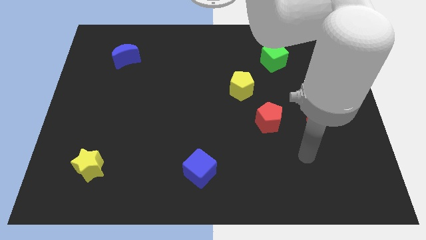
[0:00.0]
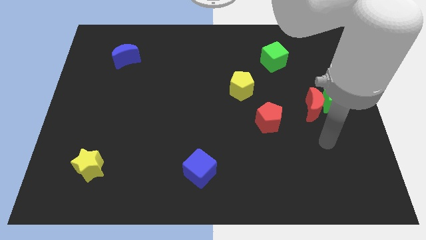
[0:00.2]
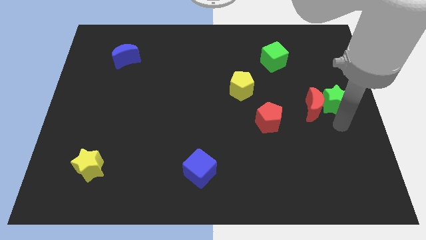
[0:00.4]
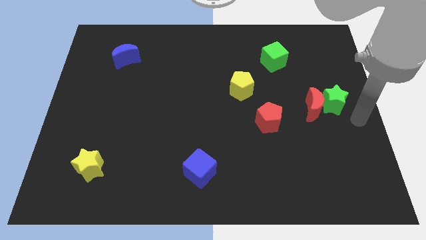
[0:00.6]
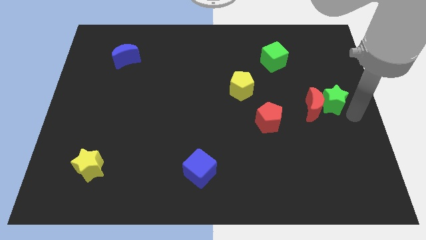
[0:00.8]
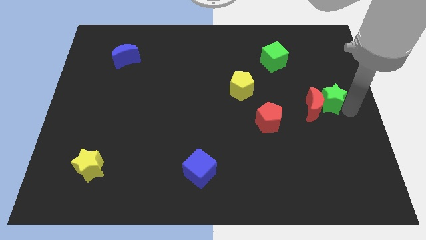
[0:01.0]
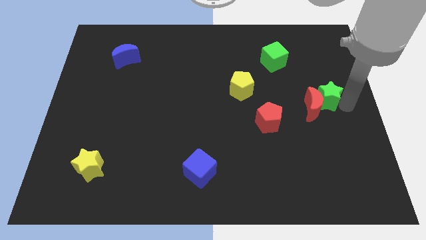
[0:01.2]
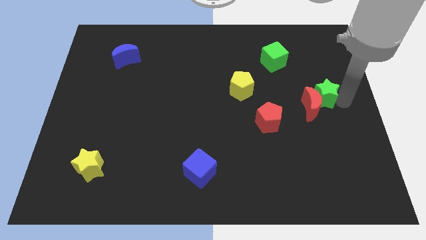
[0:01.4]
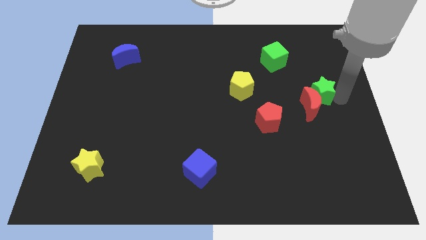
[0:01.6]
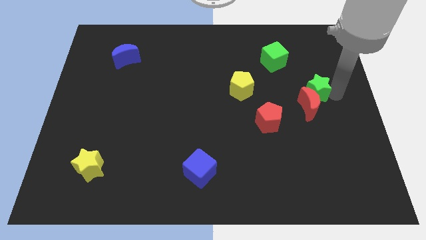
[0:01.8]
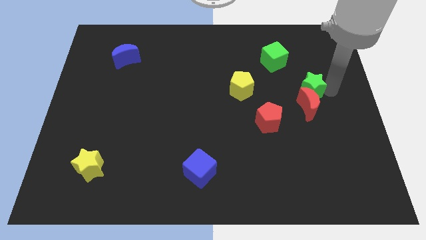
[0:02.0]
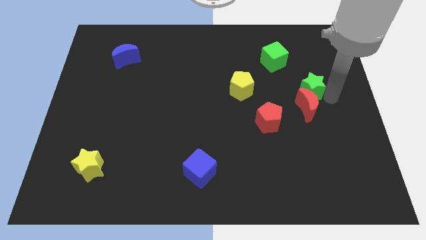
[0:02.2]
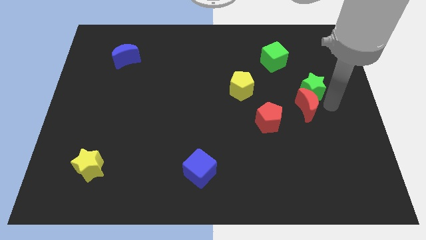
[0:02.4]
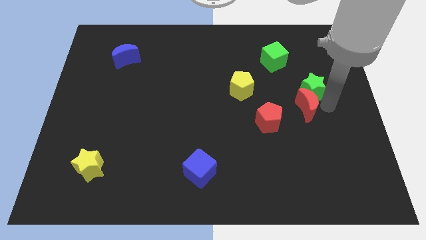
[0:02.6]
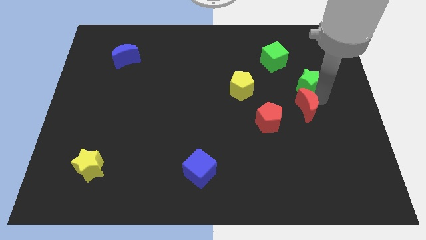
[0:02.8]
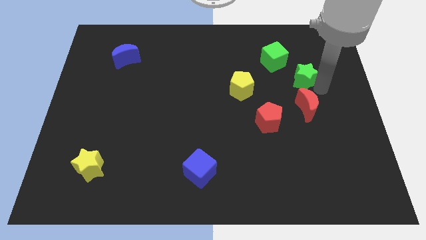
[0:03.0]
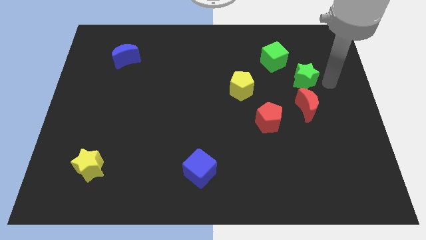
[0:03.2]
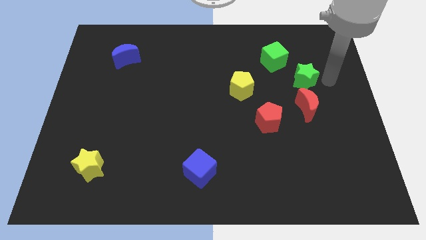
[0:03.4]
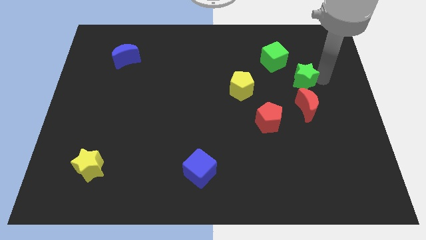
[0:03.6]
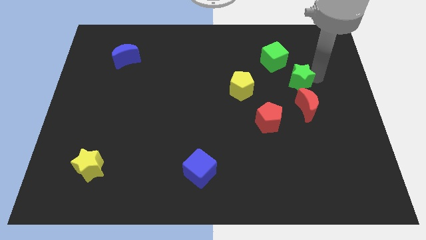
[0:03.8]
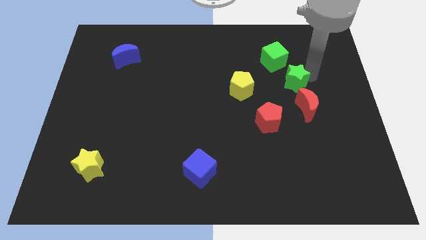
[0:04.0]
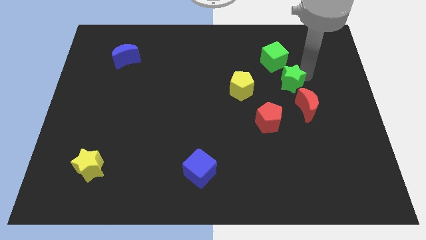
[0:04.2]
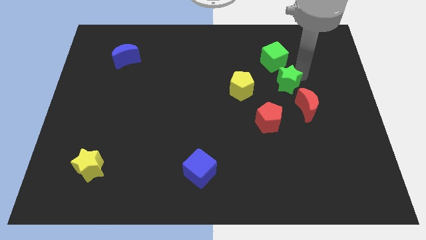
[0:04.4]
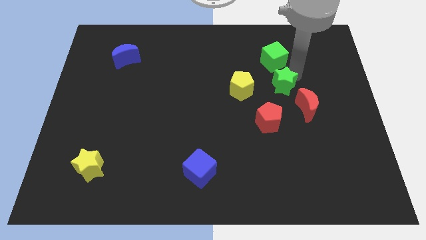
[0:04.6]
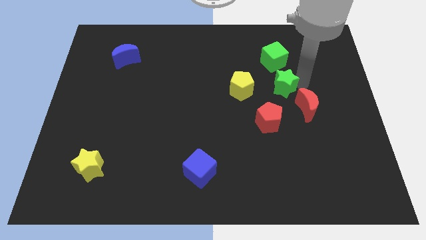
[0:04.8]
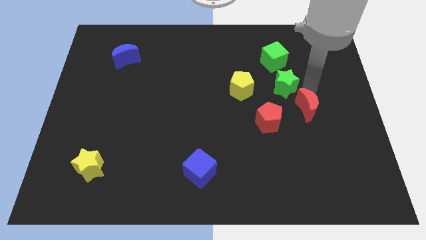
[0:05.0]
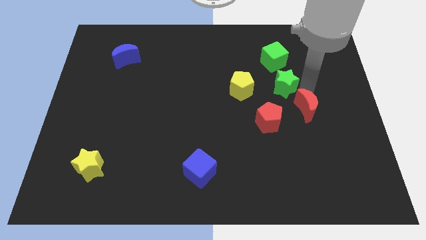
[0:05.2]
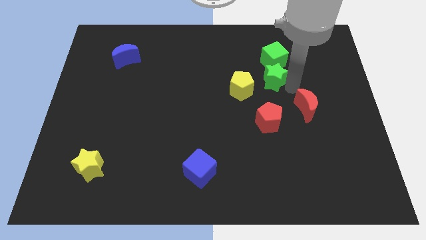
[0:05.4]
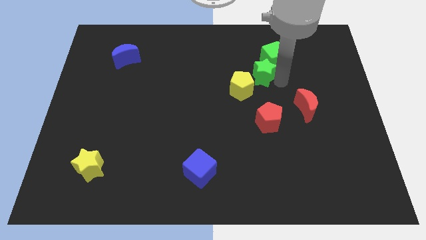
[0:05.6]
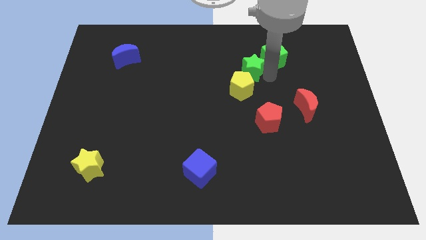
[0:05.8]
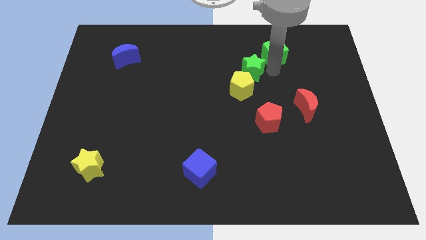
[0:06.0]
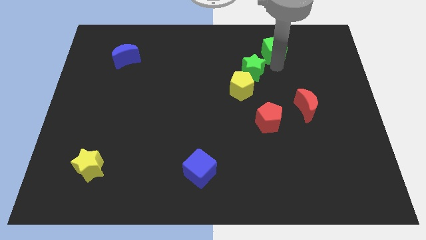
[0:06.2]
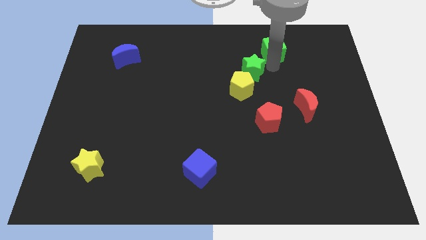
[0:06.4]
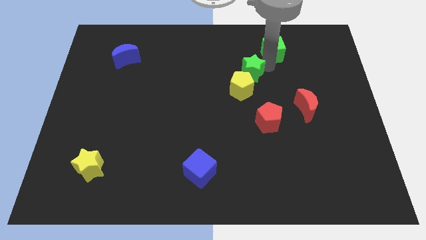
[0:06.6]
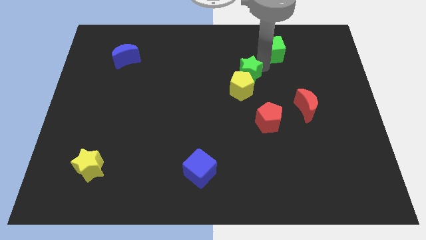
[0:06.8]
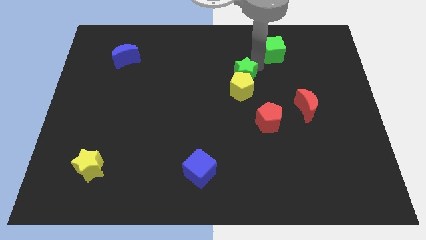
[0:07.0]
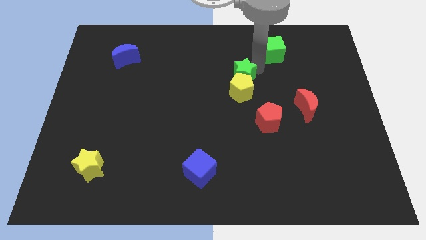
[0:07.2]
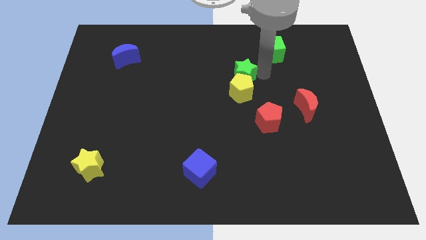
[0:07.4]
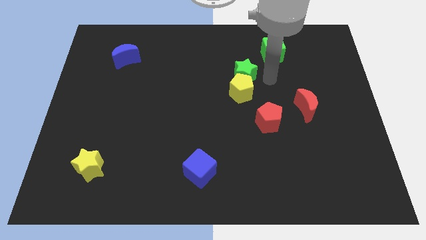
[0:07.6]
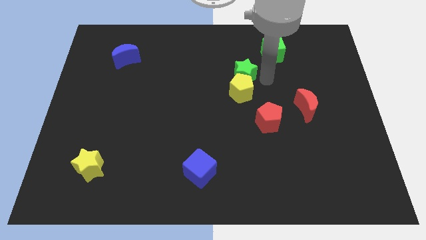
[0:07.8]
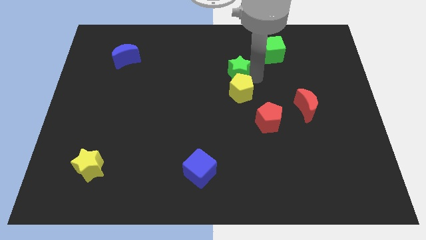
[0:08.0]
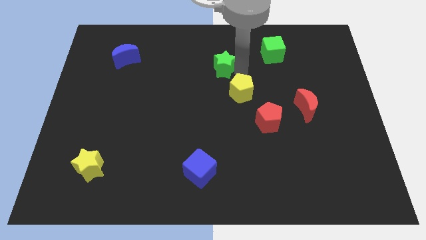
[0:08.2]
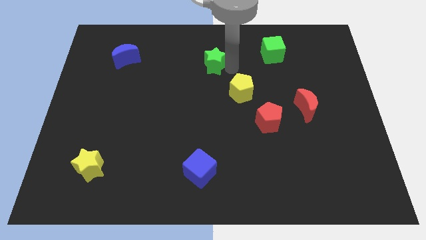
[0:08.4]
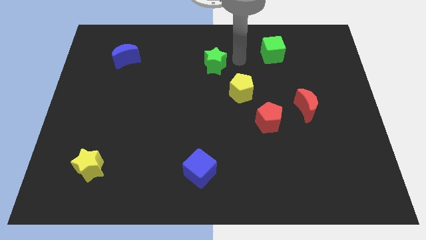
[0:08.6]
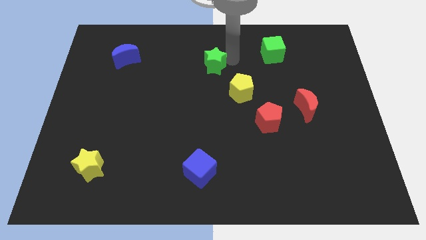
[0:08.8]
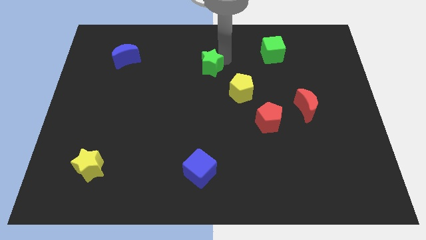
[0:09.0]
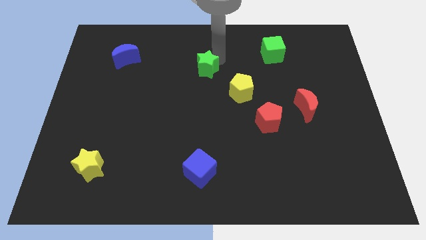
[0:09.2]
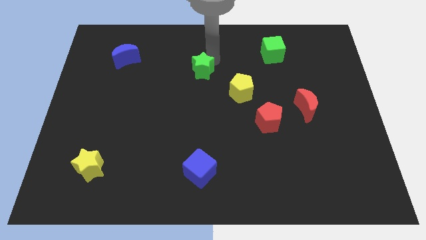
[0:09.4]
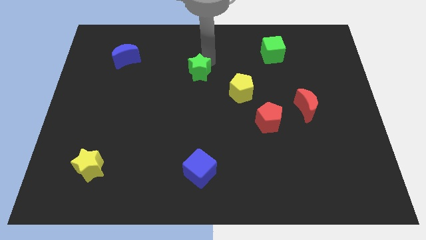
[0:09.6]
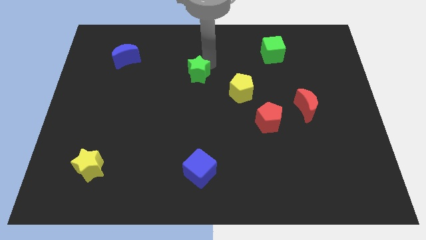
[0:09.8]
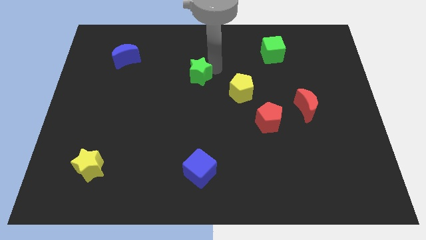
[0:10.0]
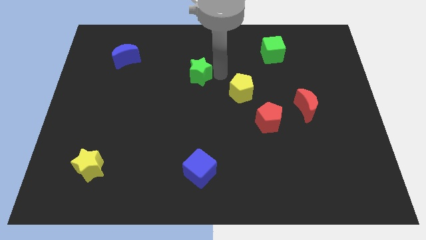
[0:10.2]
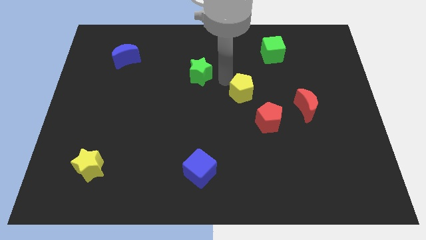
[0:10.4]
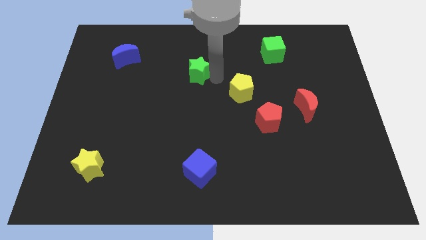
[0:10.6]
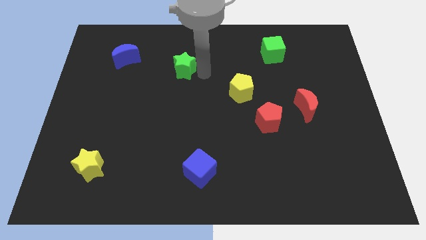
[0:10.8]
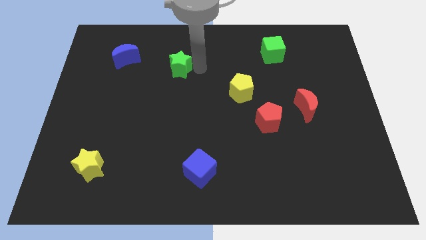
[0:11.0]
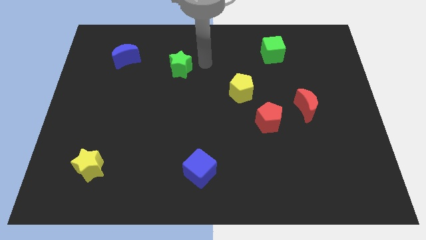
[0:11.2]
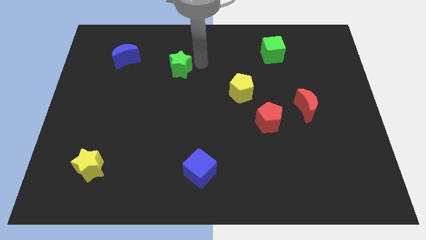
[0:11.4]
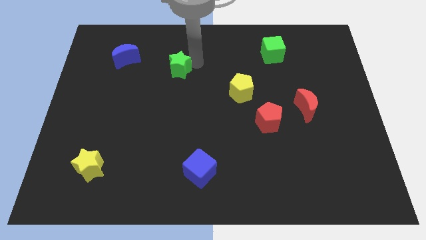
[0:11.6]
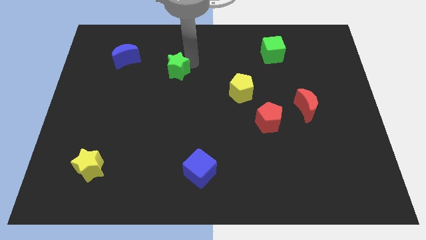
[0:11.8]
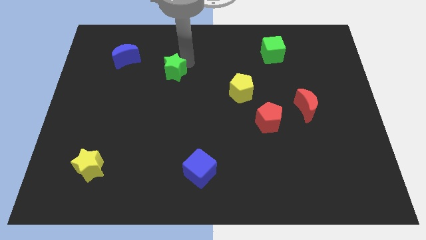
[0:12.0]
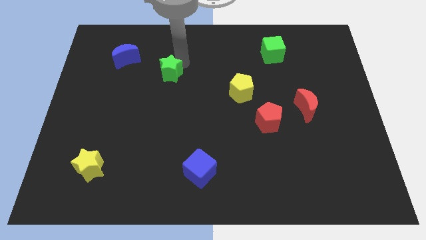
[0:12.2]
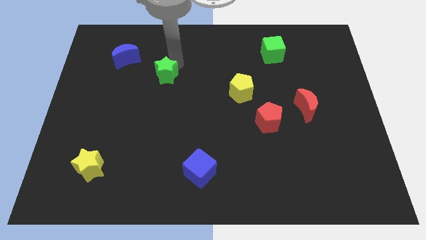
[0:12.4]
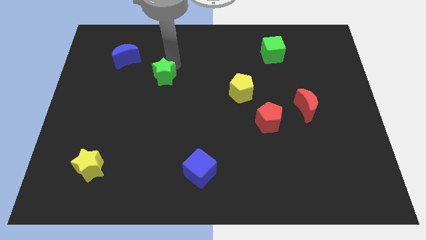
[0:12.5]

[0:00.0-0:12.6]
put the green star diagonally down and to the right of the blue moon

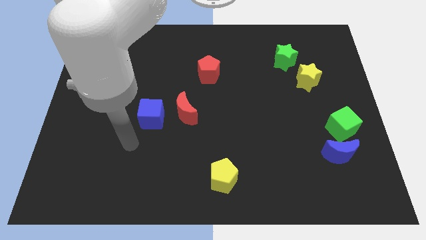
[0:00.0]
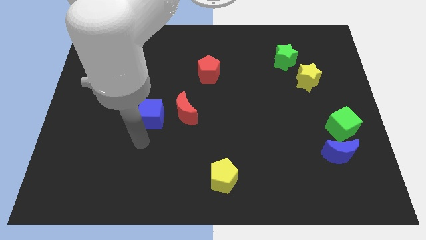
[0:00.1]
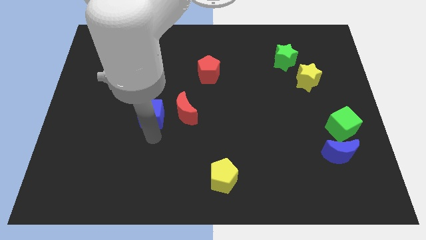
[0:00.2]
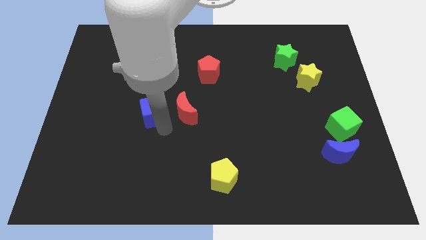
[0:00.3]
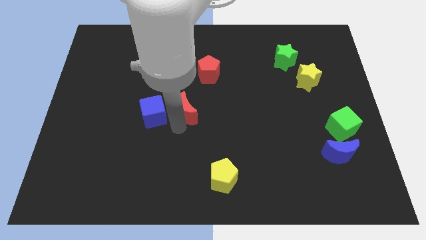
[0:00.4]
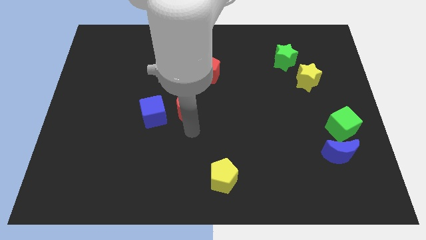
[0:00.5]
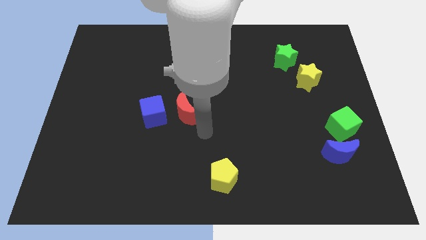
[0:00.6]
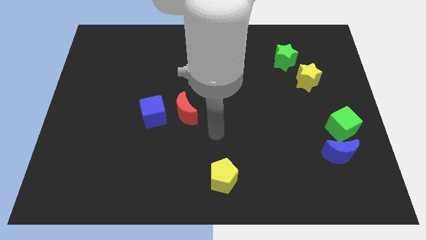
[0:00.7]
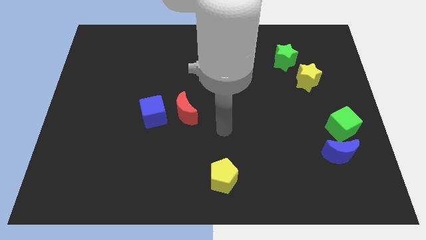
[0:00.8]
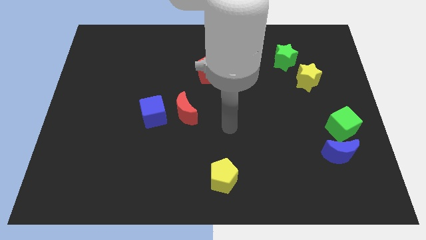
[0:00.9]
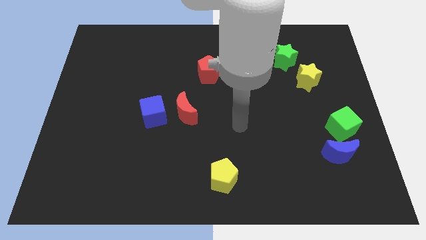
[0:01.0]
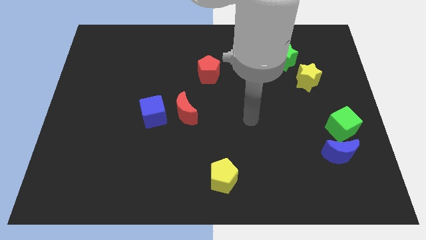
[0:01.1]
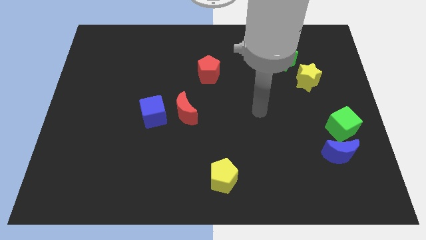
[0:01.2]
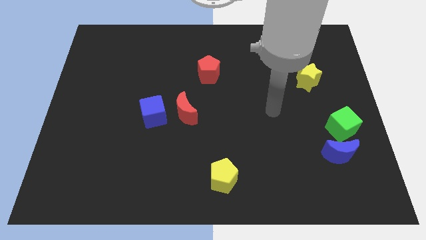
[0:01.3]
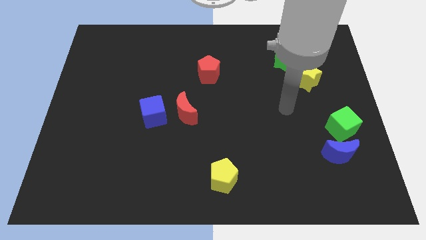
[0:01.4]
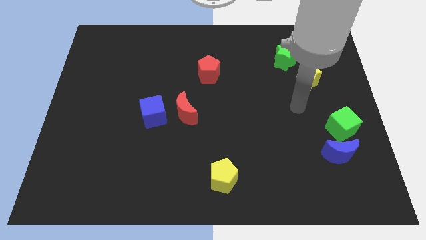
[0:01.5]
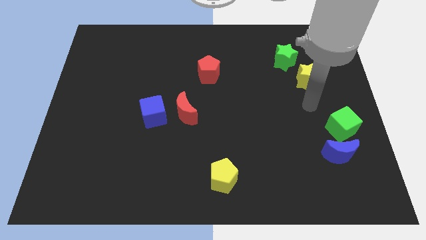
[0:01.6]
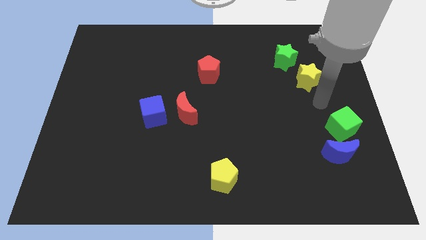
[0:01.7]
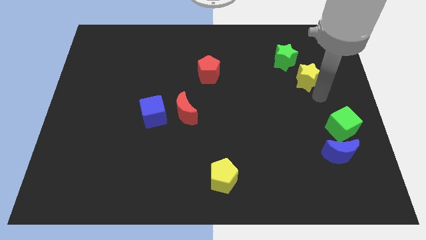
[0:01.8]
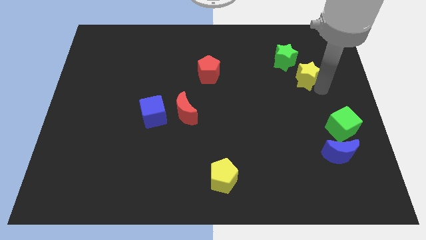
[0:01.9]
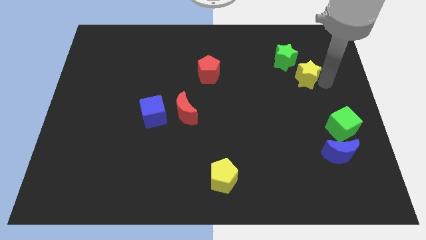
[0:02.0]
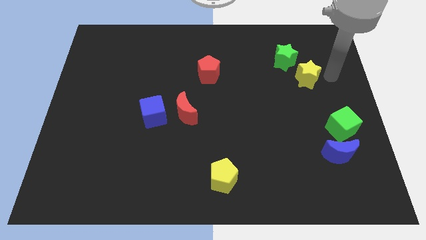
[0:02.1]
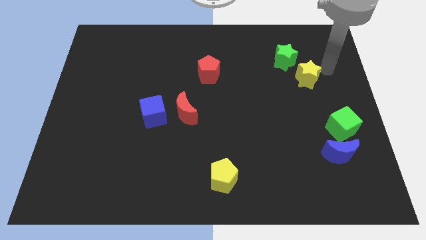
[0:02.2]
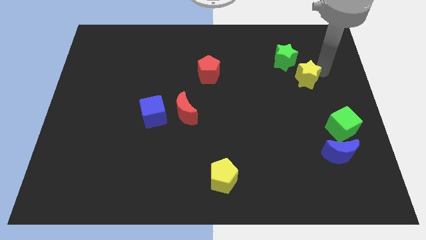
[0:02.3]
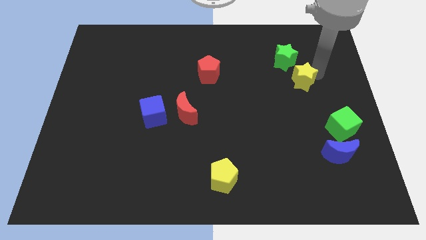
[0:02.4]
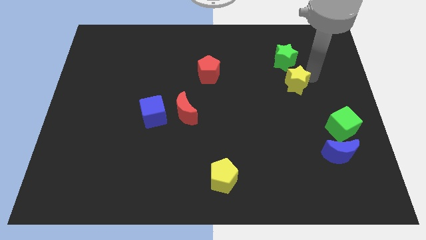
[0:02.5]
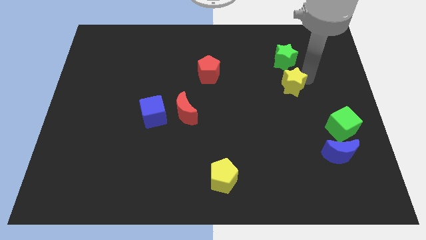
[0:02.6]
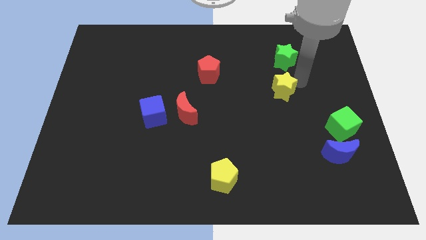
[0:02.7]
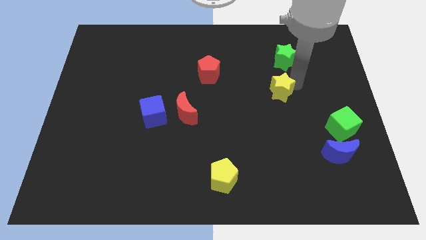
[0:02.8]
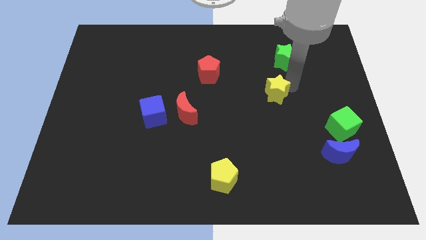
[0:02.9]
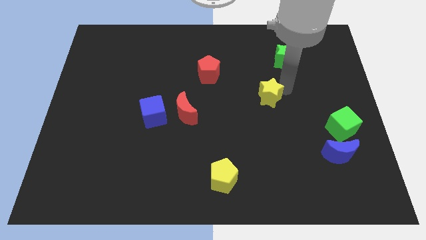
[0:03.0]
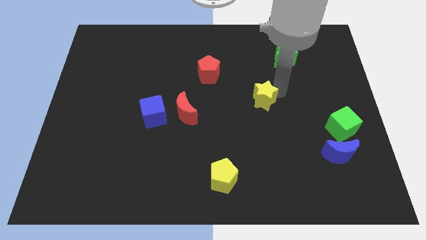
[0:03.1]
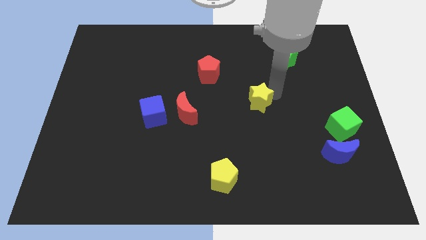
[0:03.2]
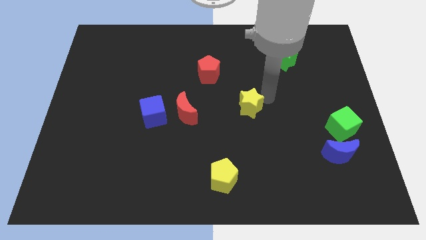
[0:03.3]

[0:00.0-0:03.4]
push the yellow star to the right of the red moon
